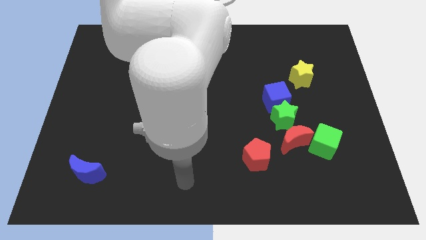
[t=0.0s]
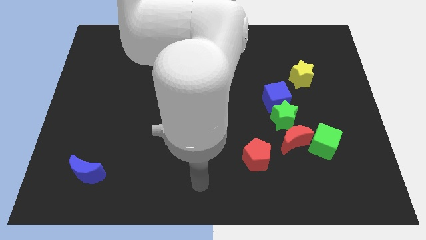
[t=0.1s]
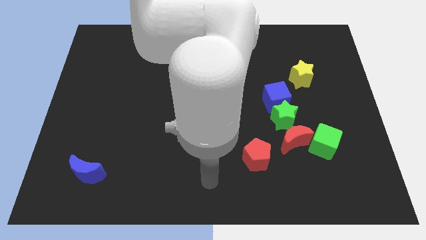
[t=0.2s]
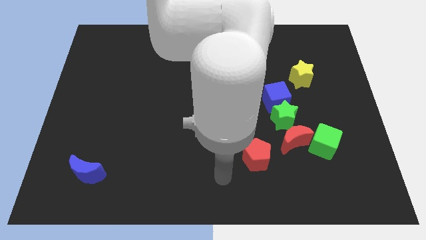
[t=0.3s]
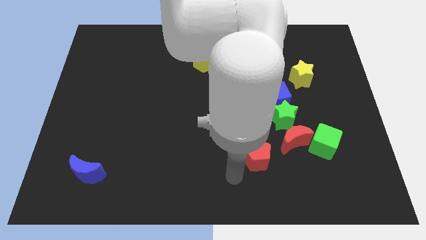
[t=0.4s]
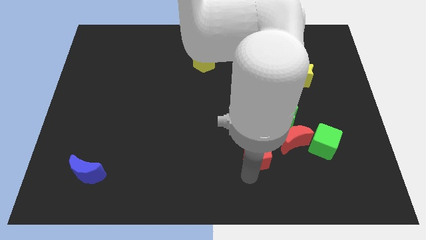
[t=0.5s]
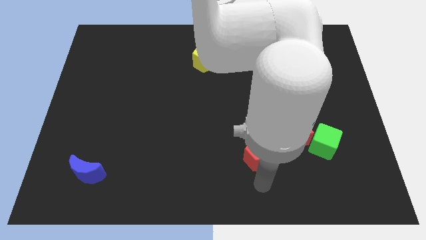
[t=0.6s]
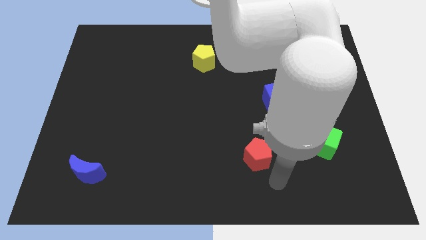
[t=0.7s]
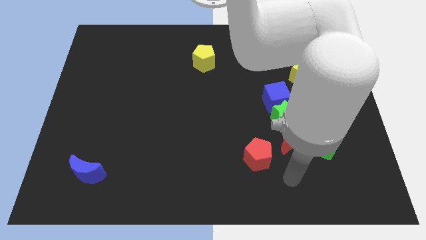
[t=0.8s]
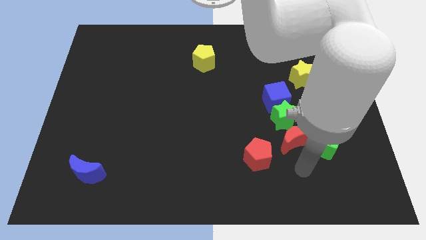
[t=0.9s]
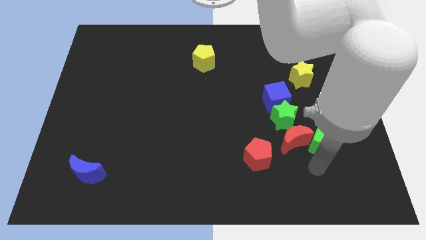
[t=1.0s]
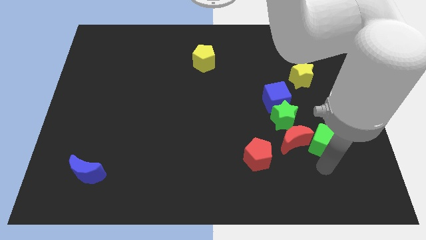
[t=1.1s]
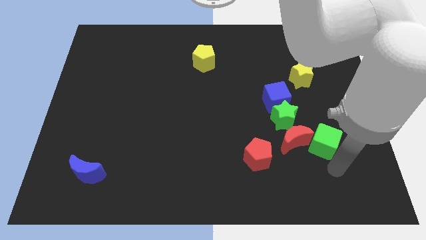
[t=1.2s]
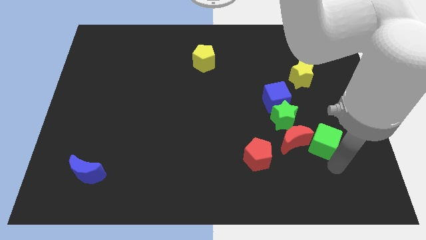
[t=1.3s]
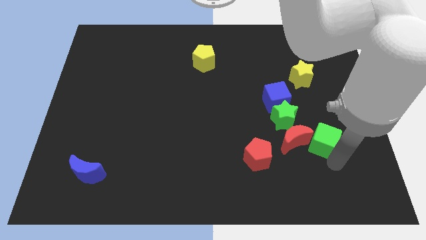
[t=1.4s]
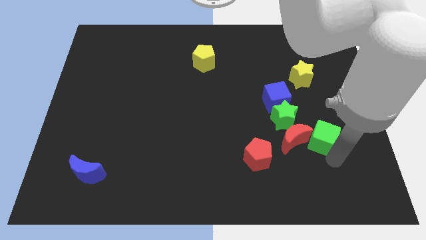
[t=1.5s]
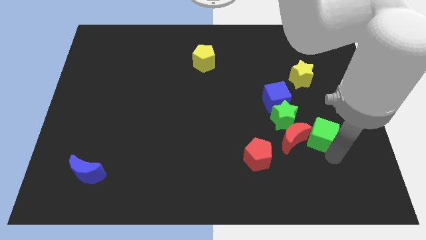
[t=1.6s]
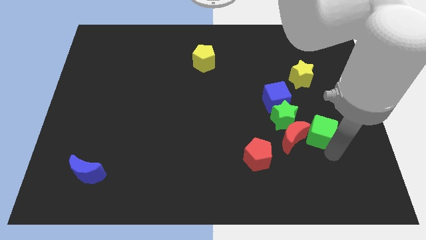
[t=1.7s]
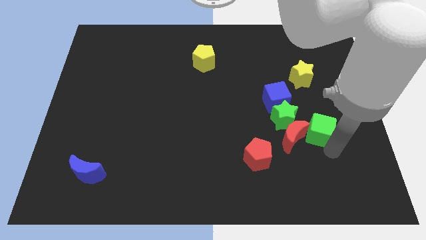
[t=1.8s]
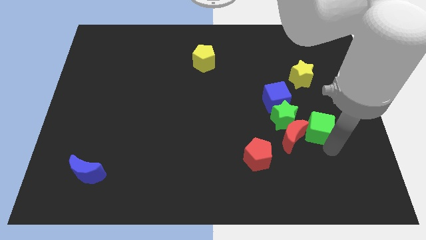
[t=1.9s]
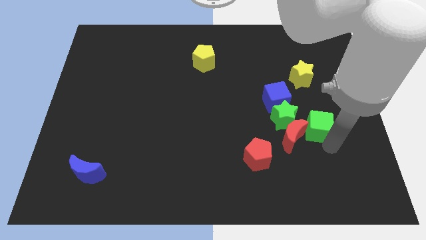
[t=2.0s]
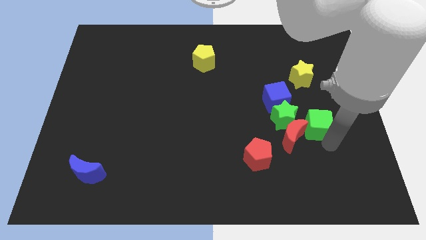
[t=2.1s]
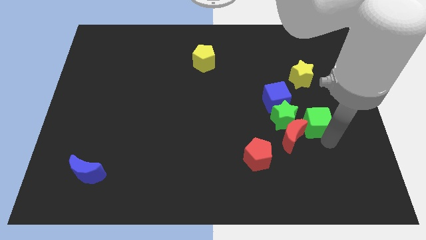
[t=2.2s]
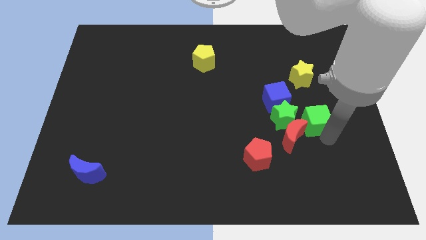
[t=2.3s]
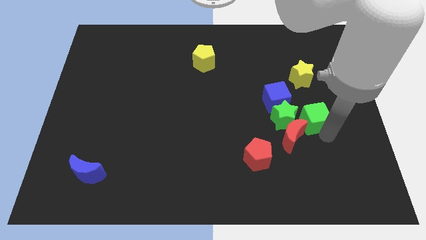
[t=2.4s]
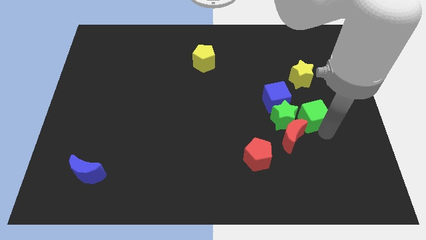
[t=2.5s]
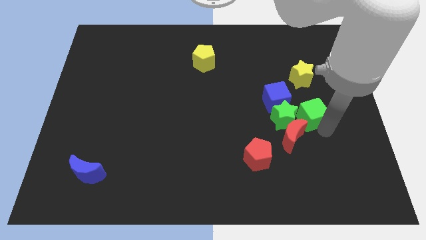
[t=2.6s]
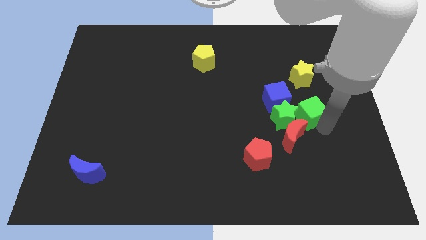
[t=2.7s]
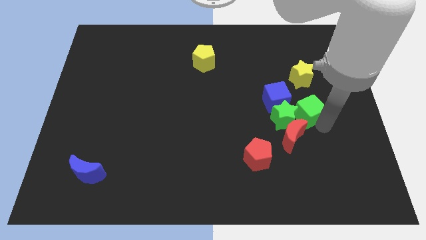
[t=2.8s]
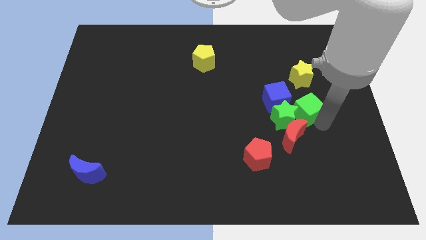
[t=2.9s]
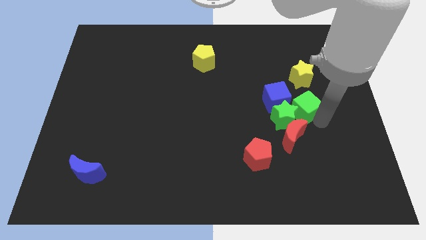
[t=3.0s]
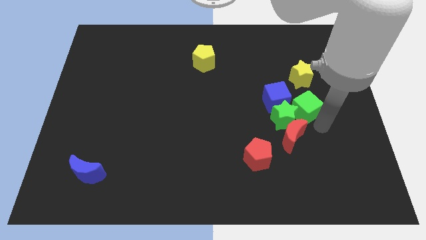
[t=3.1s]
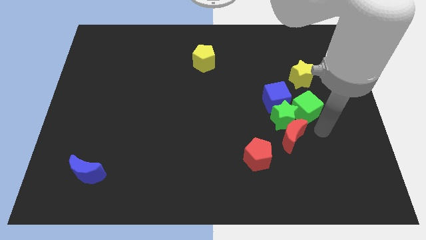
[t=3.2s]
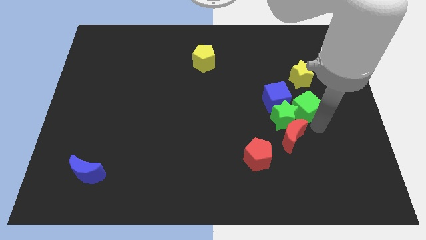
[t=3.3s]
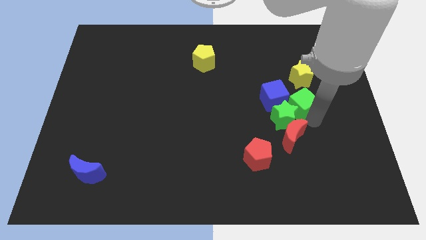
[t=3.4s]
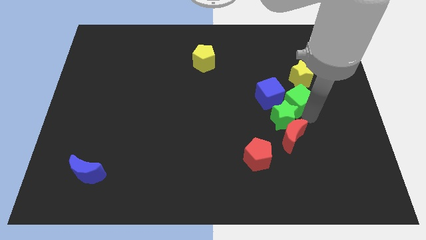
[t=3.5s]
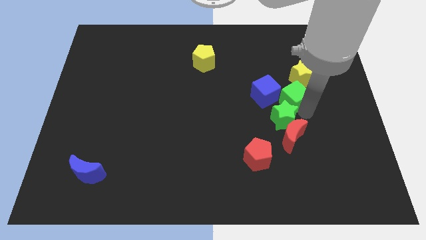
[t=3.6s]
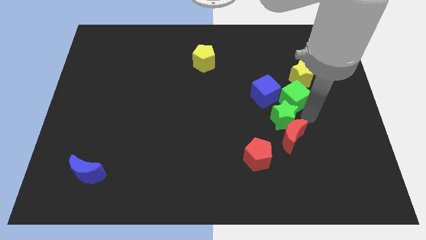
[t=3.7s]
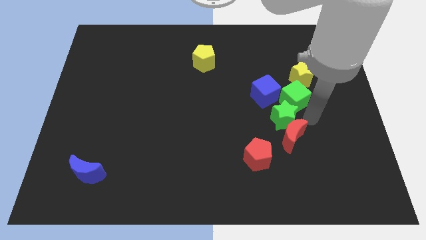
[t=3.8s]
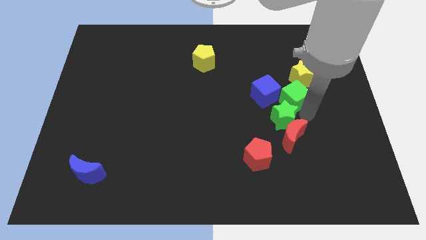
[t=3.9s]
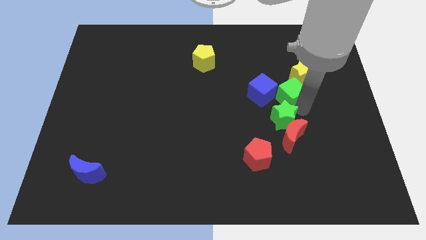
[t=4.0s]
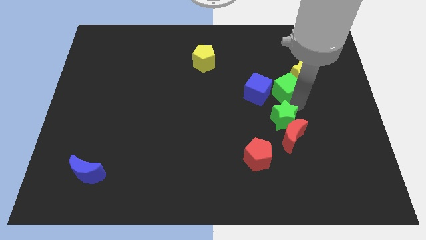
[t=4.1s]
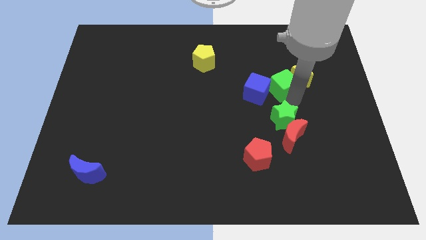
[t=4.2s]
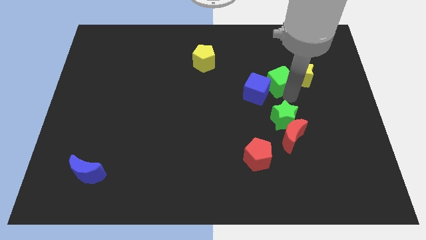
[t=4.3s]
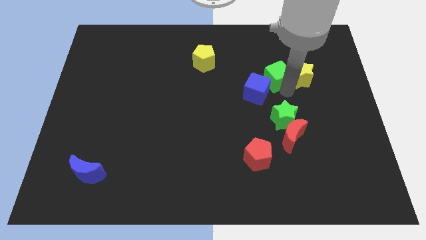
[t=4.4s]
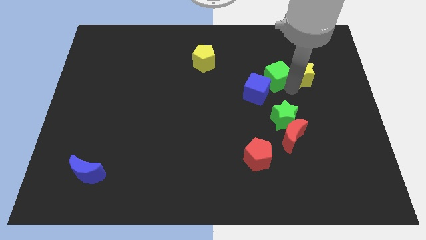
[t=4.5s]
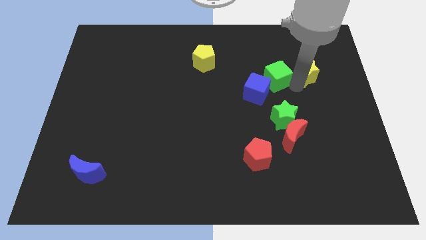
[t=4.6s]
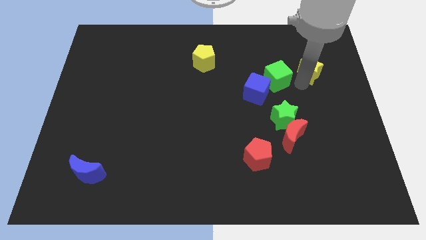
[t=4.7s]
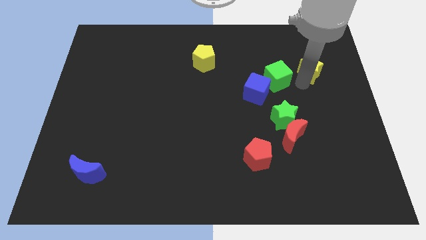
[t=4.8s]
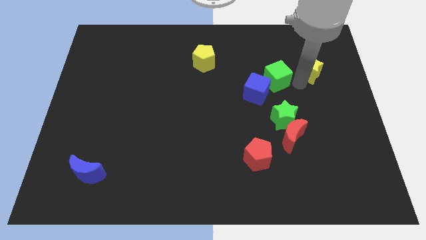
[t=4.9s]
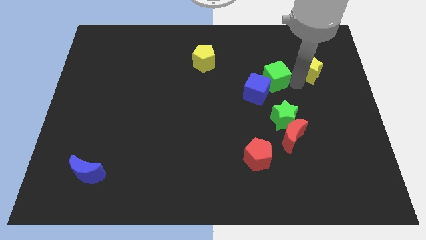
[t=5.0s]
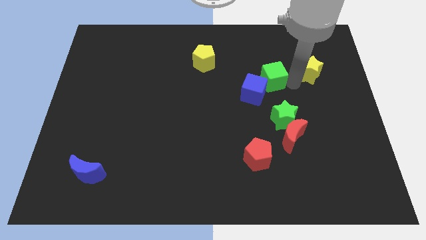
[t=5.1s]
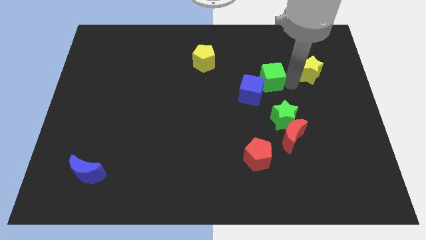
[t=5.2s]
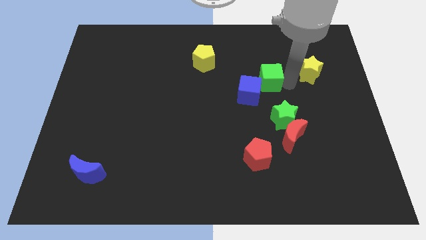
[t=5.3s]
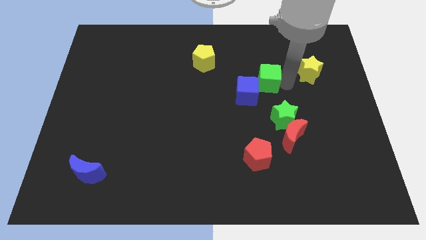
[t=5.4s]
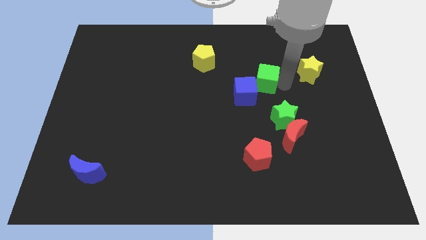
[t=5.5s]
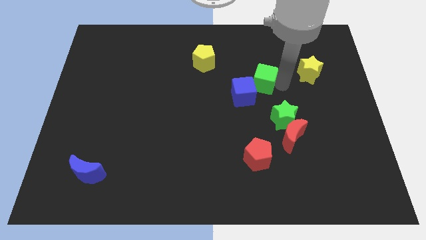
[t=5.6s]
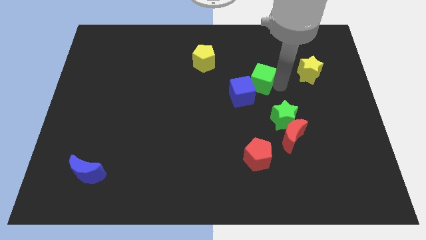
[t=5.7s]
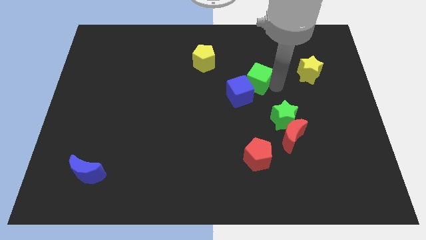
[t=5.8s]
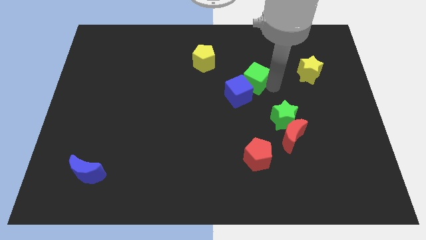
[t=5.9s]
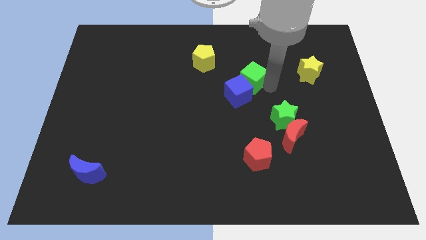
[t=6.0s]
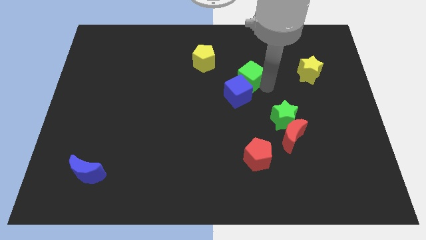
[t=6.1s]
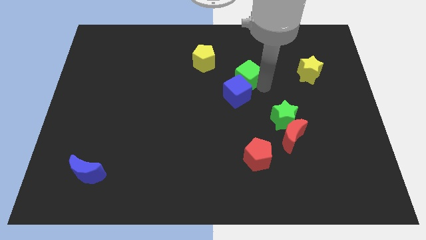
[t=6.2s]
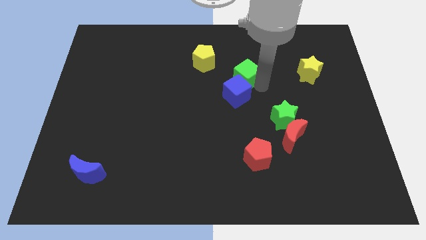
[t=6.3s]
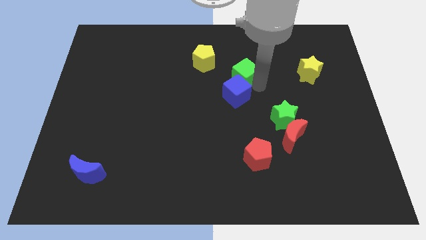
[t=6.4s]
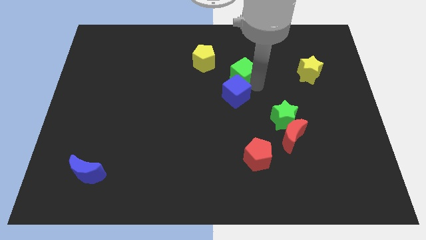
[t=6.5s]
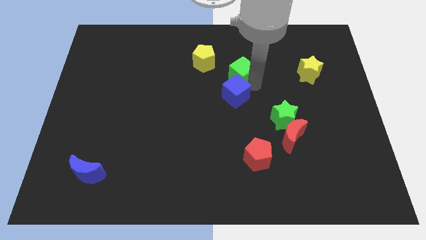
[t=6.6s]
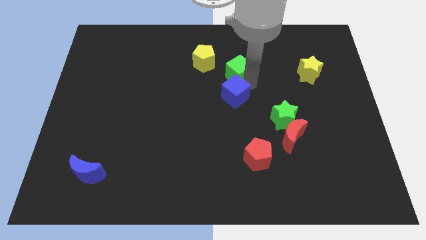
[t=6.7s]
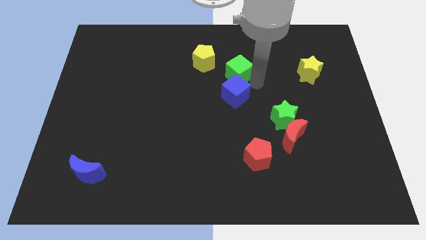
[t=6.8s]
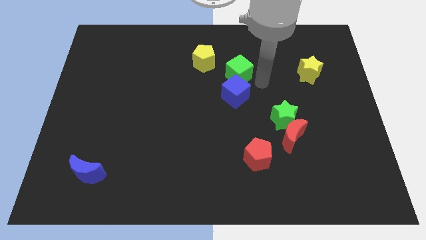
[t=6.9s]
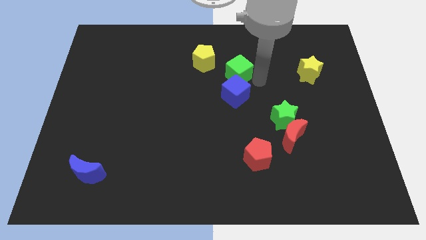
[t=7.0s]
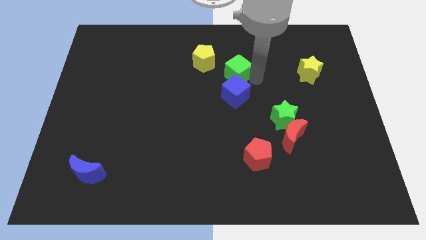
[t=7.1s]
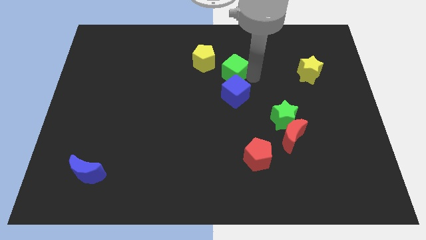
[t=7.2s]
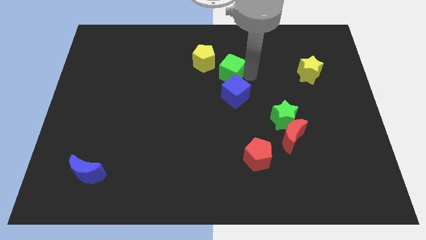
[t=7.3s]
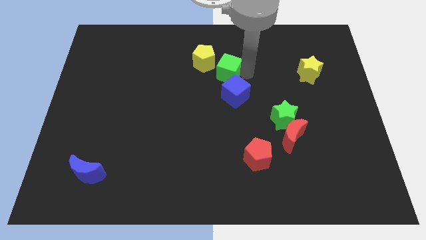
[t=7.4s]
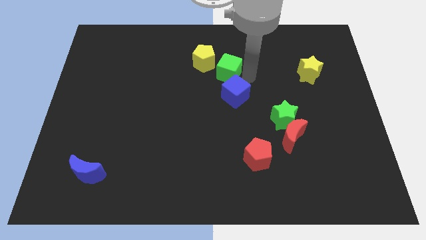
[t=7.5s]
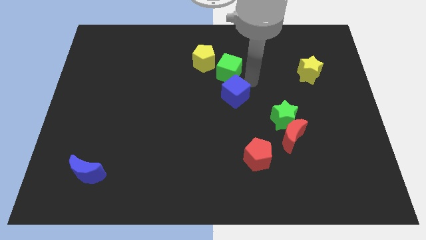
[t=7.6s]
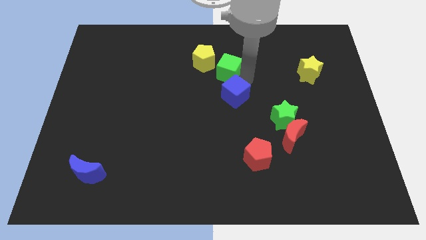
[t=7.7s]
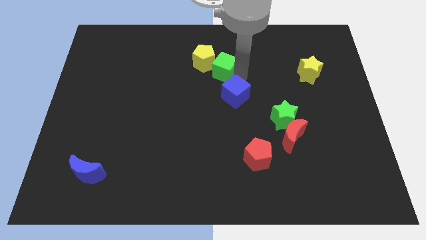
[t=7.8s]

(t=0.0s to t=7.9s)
slide the green cube towards the yellow pentagon
